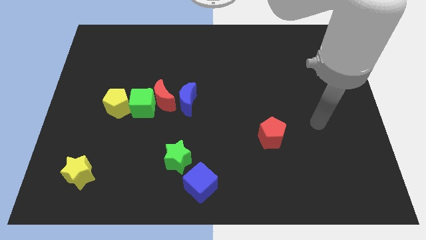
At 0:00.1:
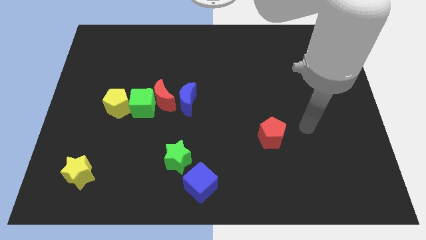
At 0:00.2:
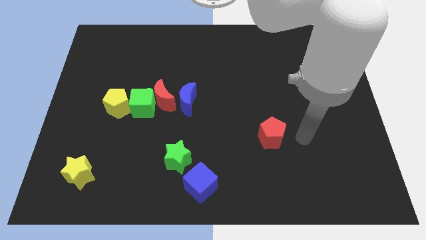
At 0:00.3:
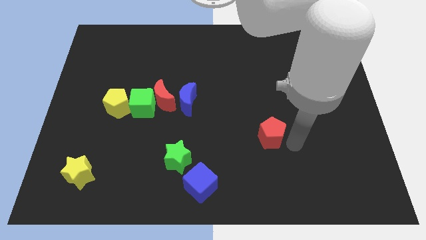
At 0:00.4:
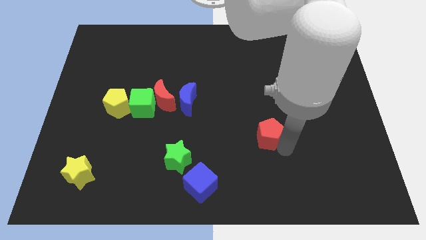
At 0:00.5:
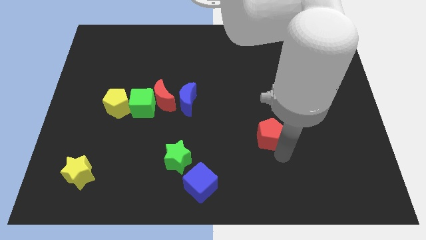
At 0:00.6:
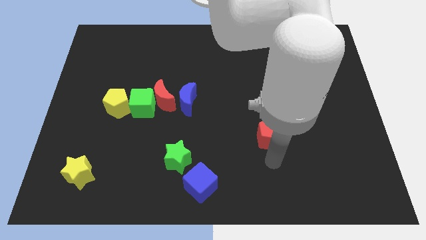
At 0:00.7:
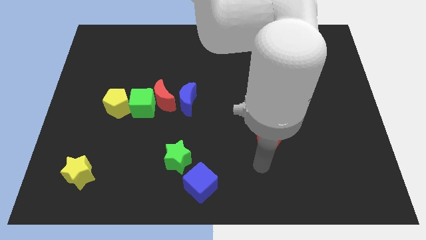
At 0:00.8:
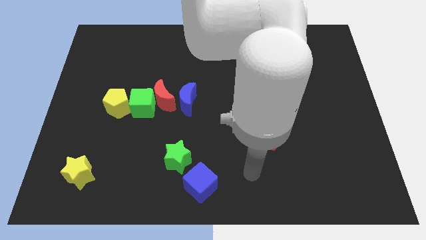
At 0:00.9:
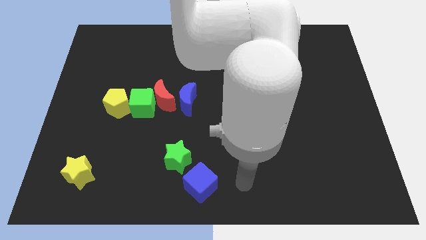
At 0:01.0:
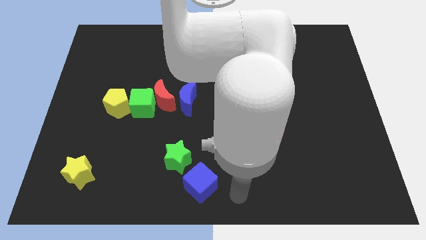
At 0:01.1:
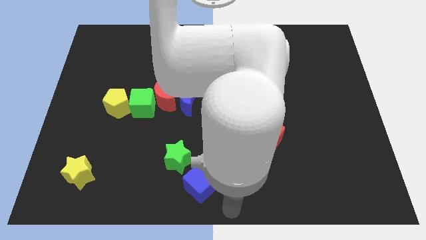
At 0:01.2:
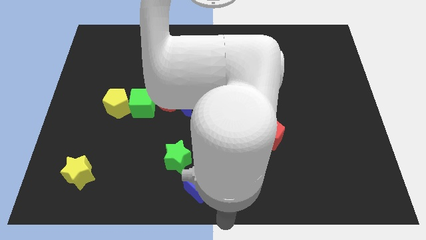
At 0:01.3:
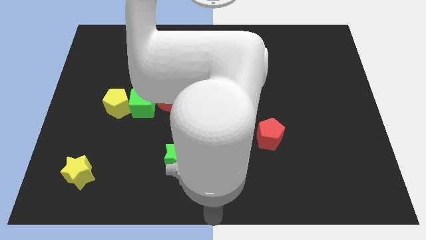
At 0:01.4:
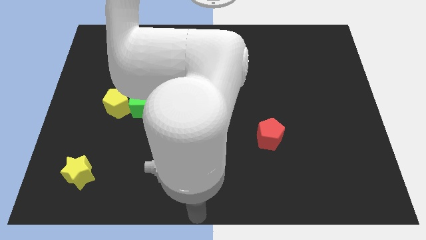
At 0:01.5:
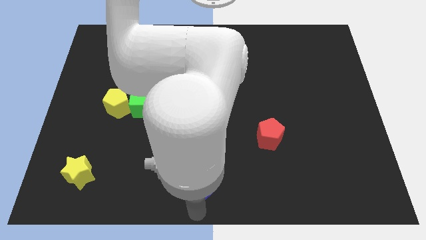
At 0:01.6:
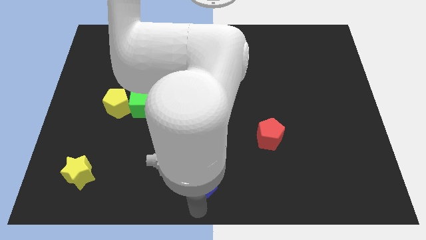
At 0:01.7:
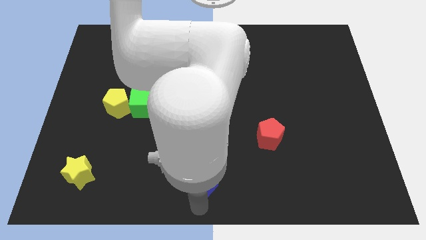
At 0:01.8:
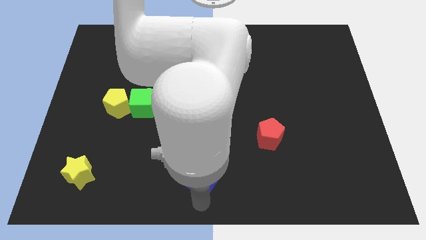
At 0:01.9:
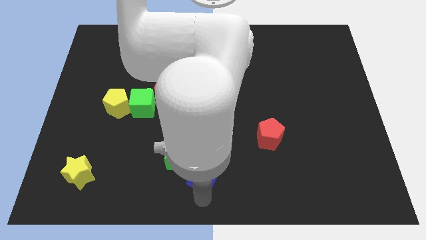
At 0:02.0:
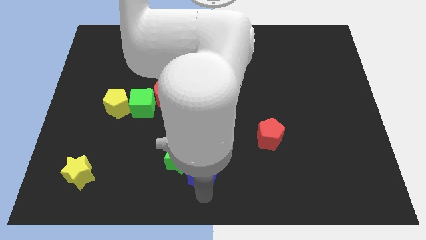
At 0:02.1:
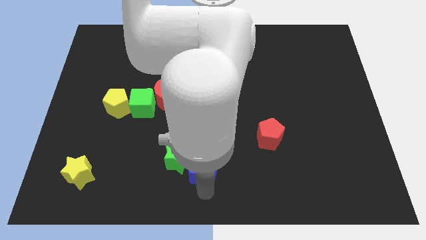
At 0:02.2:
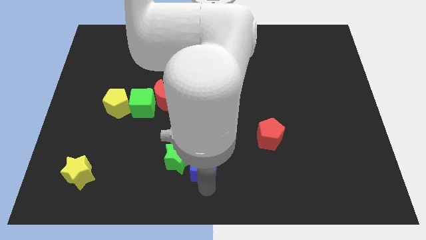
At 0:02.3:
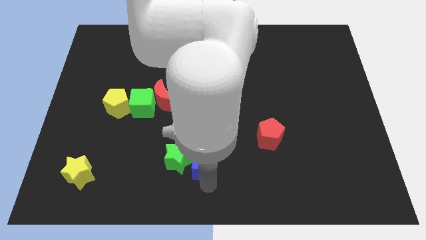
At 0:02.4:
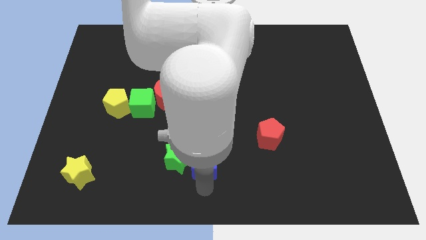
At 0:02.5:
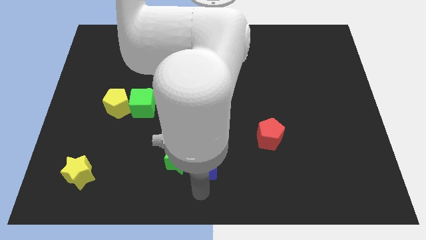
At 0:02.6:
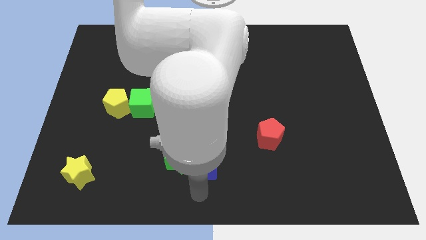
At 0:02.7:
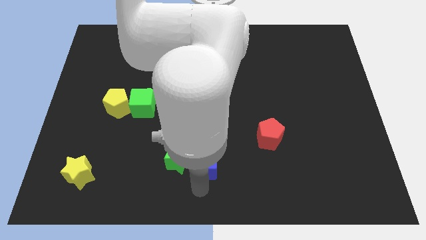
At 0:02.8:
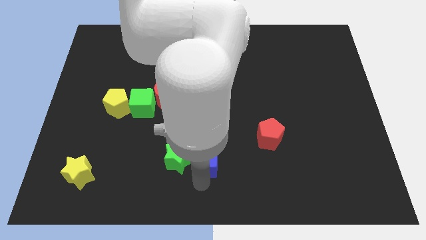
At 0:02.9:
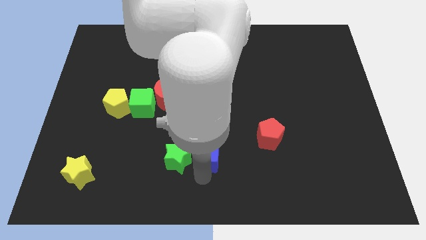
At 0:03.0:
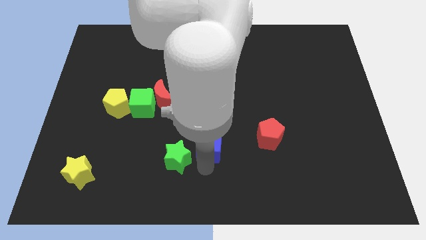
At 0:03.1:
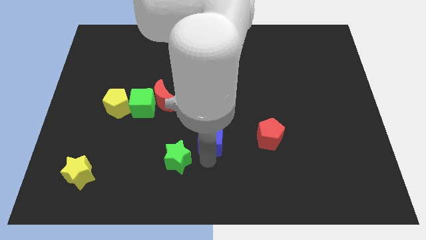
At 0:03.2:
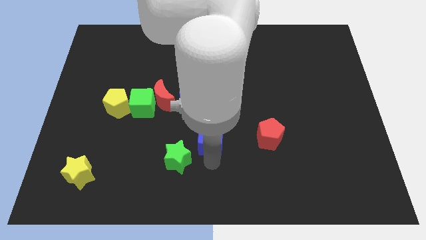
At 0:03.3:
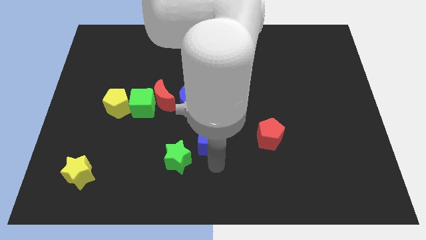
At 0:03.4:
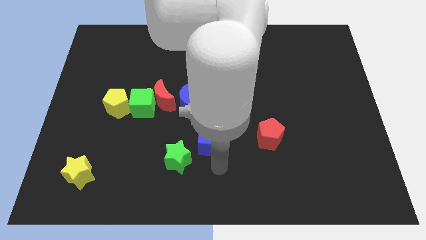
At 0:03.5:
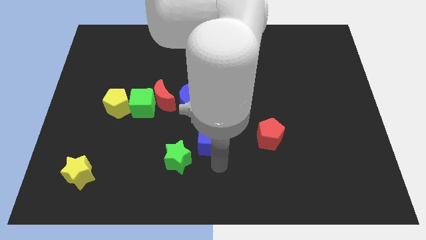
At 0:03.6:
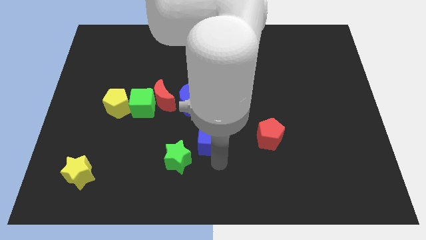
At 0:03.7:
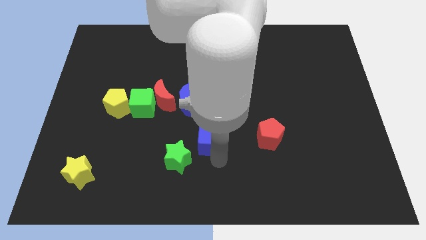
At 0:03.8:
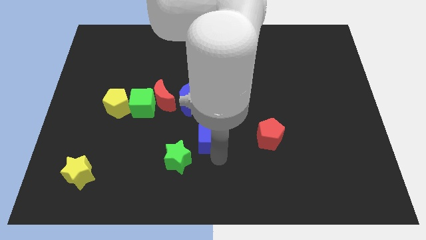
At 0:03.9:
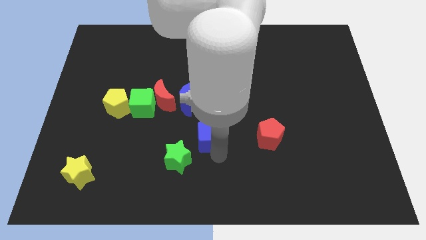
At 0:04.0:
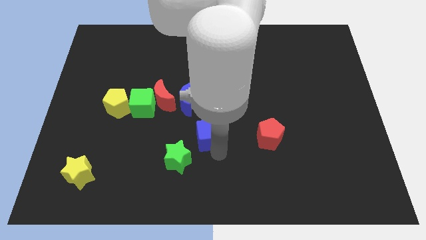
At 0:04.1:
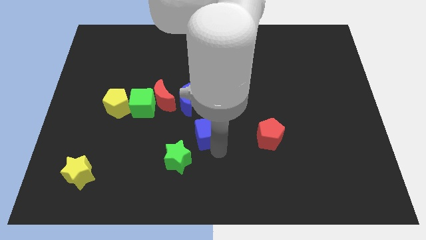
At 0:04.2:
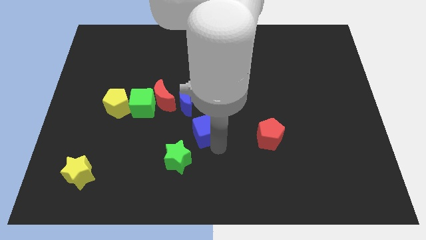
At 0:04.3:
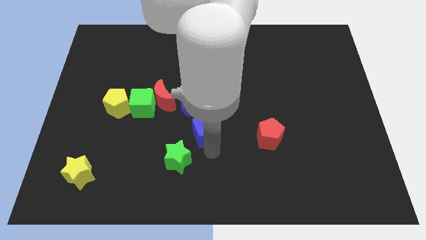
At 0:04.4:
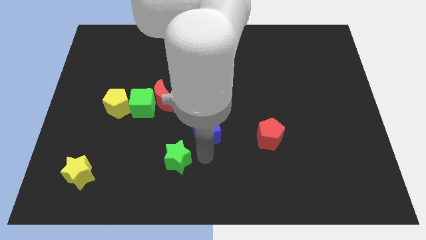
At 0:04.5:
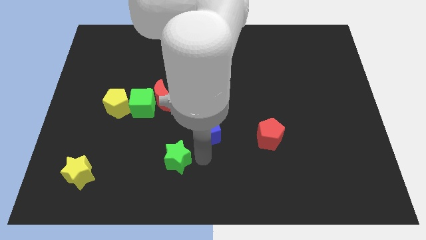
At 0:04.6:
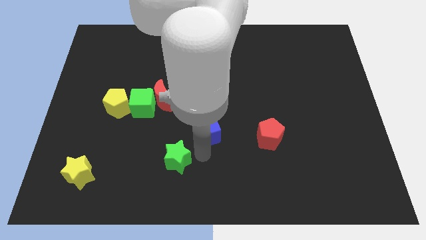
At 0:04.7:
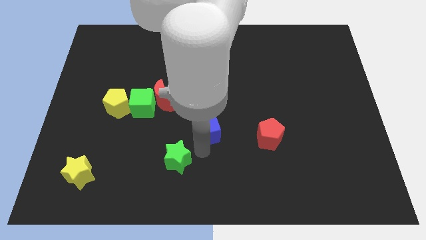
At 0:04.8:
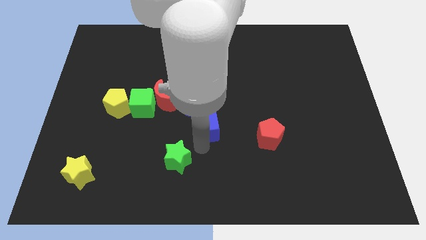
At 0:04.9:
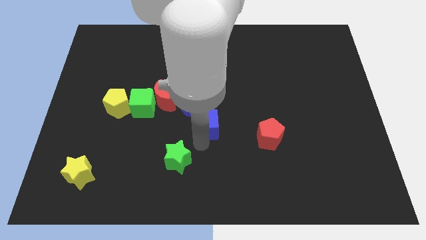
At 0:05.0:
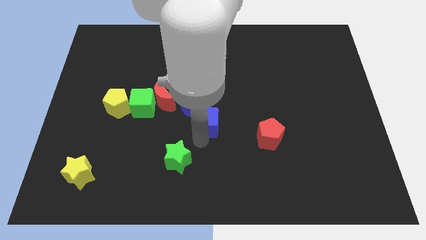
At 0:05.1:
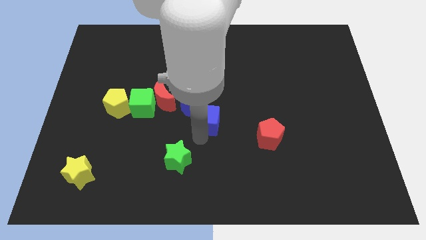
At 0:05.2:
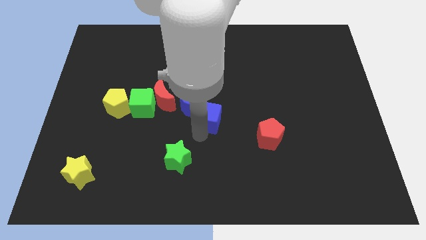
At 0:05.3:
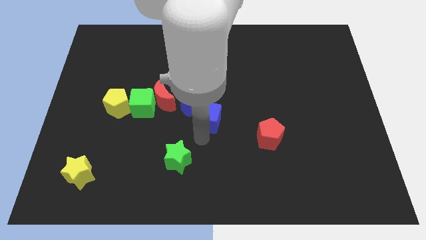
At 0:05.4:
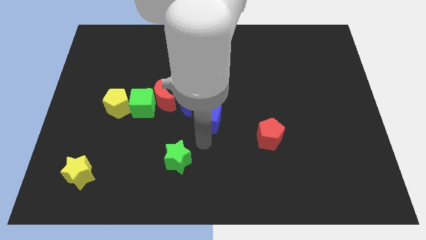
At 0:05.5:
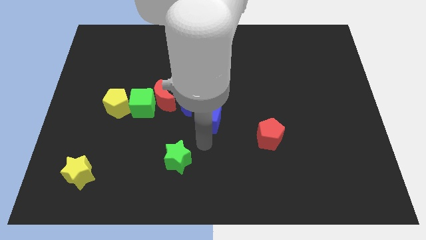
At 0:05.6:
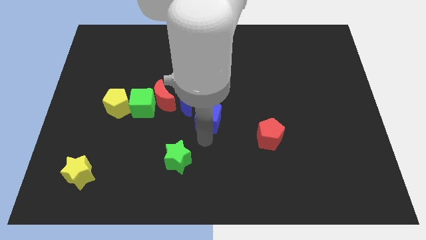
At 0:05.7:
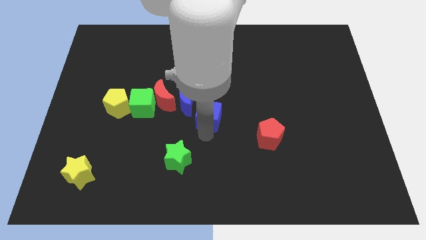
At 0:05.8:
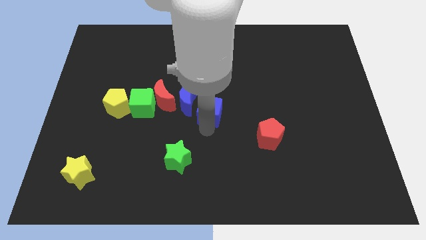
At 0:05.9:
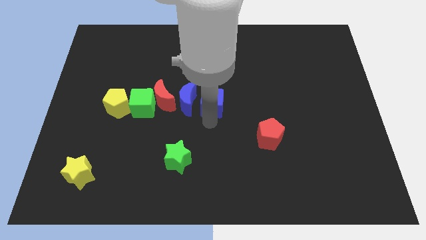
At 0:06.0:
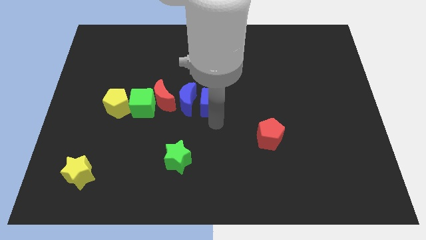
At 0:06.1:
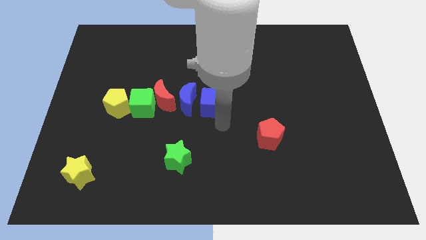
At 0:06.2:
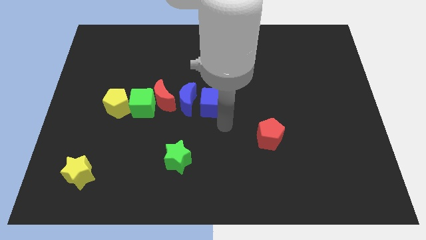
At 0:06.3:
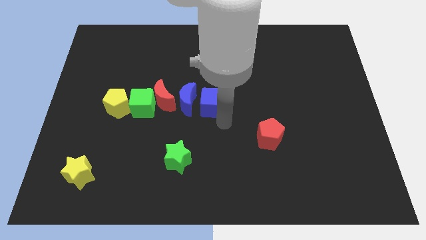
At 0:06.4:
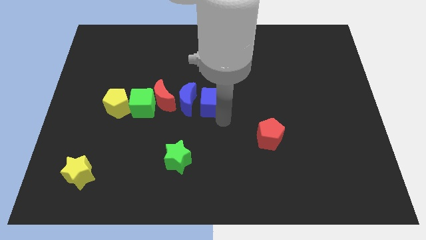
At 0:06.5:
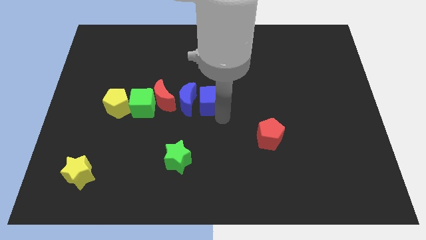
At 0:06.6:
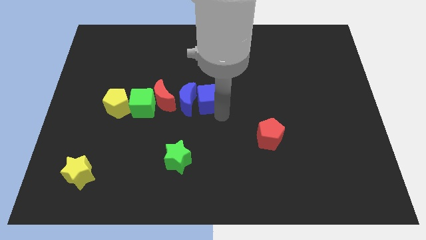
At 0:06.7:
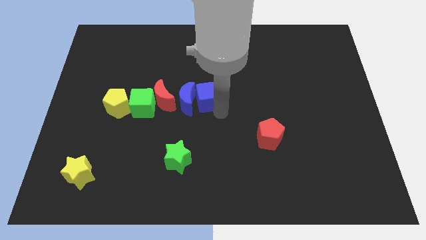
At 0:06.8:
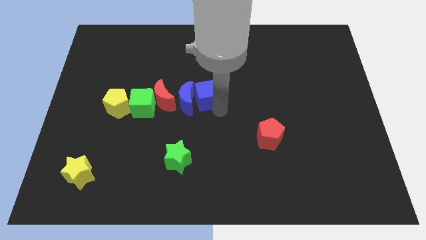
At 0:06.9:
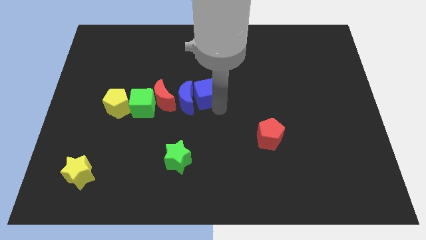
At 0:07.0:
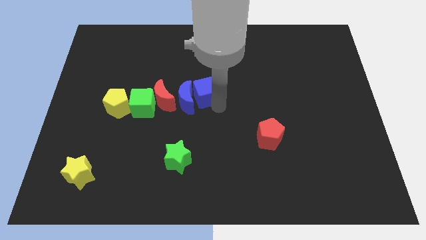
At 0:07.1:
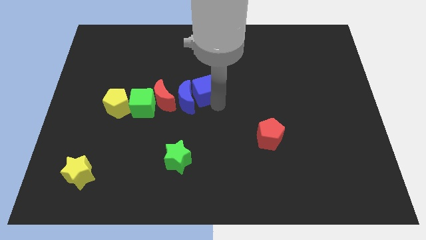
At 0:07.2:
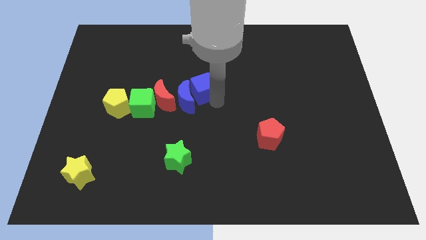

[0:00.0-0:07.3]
push the blue cube above the blue moon
